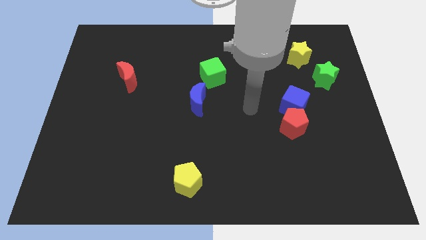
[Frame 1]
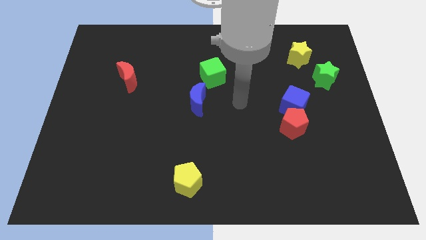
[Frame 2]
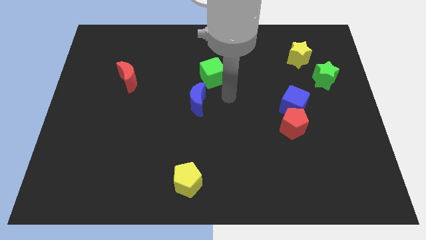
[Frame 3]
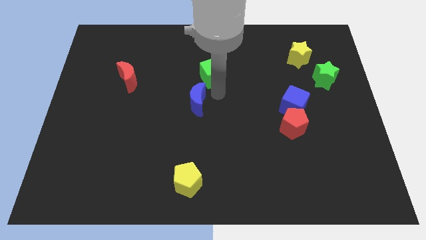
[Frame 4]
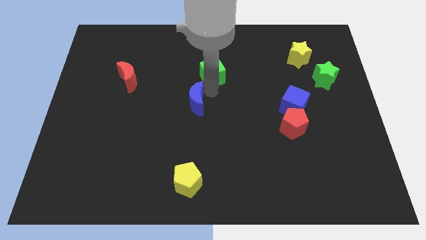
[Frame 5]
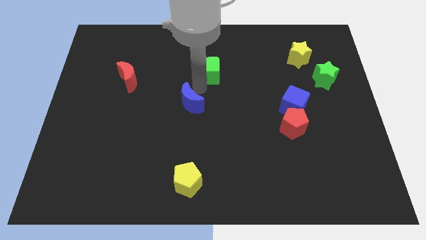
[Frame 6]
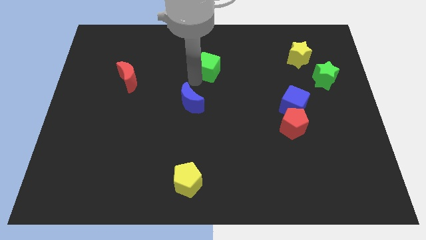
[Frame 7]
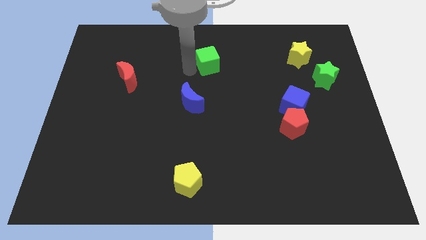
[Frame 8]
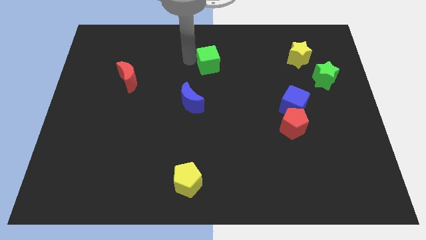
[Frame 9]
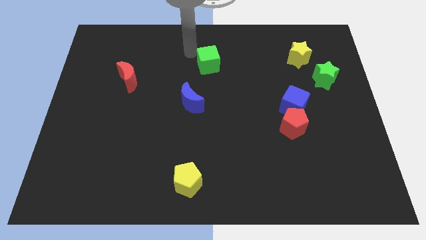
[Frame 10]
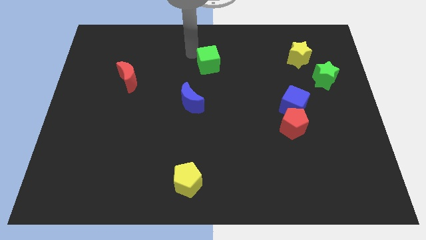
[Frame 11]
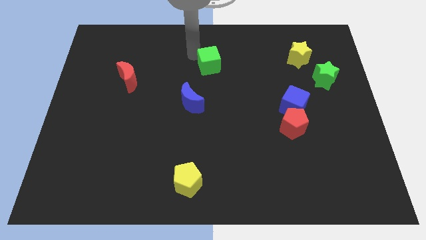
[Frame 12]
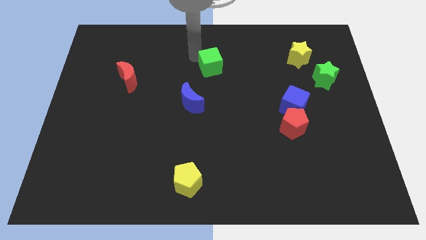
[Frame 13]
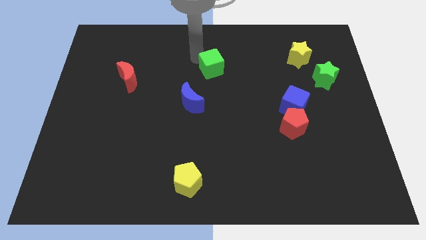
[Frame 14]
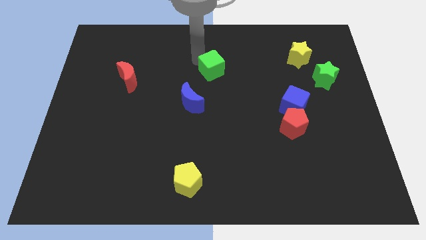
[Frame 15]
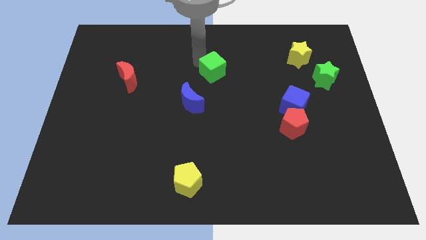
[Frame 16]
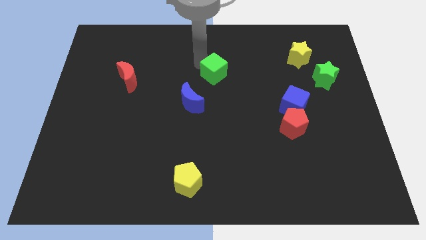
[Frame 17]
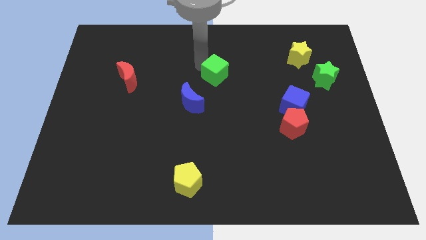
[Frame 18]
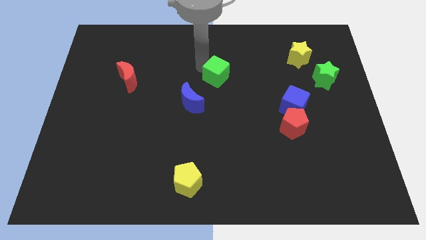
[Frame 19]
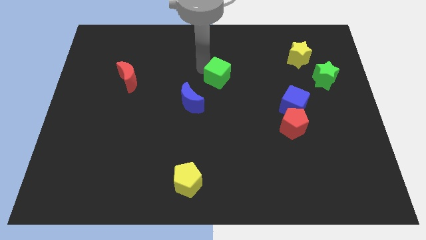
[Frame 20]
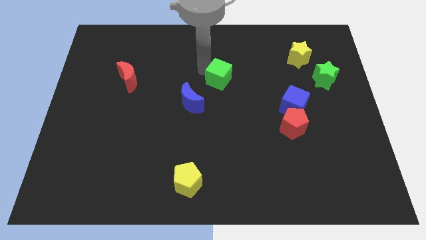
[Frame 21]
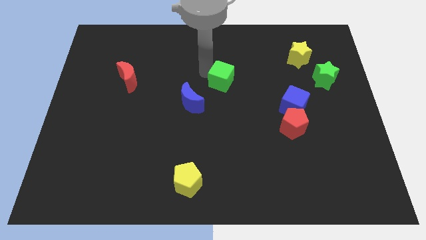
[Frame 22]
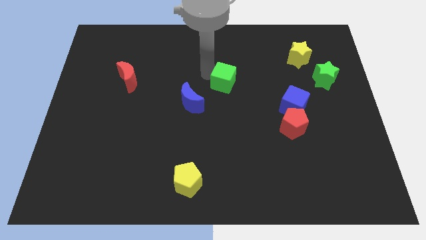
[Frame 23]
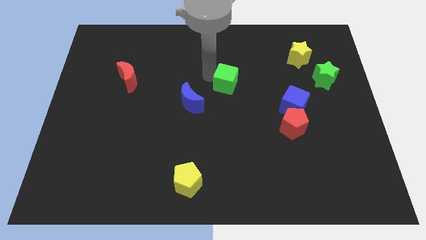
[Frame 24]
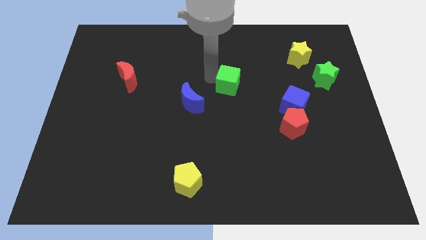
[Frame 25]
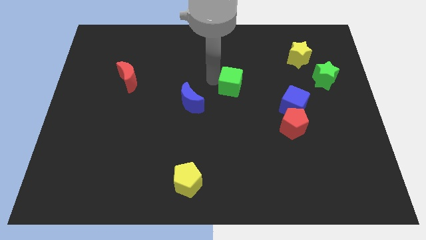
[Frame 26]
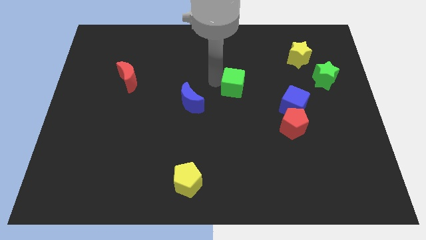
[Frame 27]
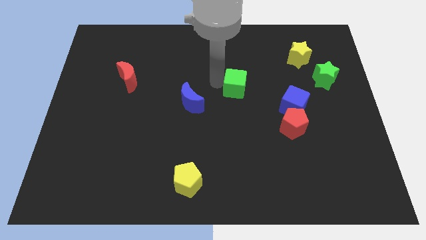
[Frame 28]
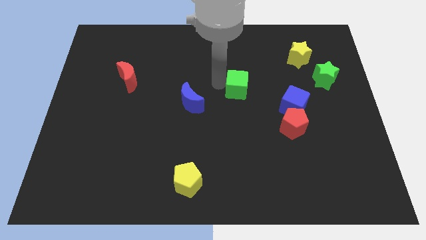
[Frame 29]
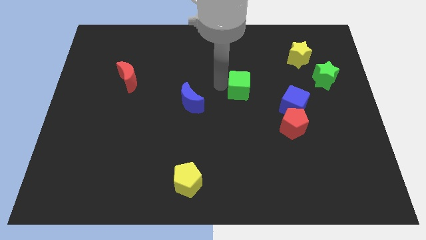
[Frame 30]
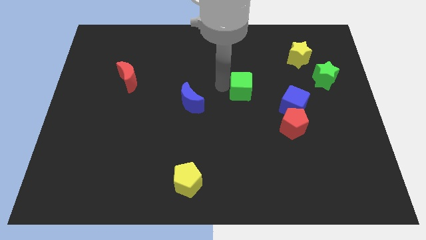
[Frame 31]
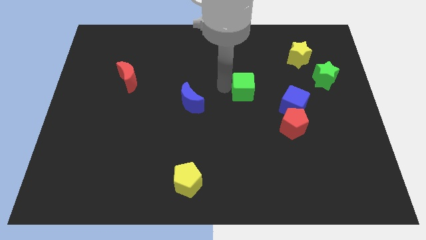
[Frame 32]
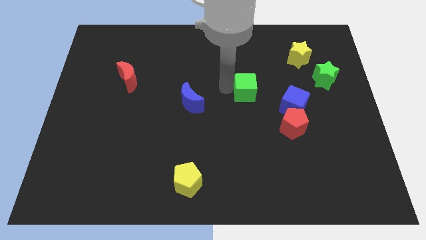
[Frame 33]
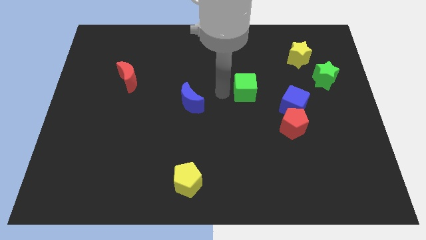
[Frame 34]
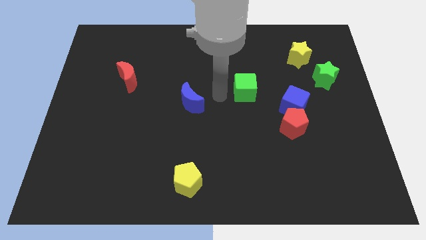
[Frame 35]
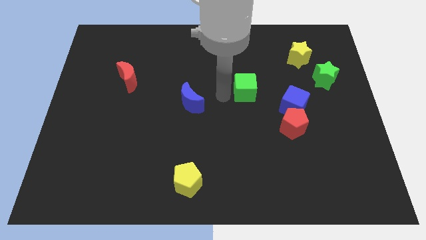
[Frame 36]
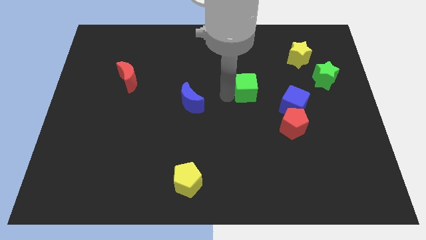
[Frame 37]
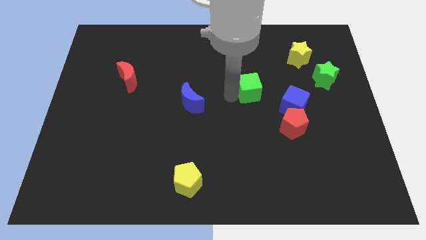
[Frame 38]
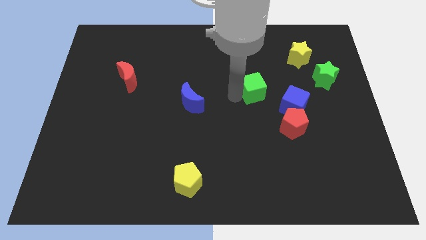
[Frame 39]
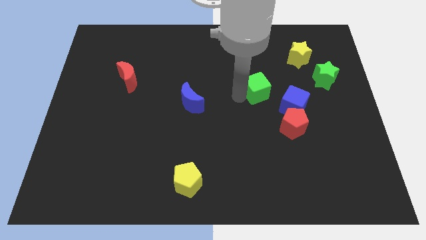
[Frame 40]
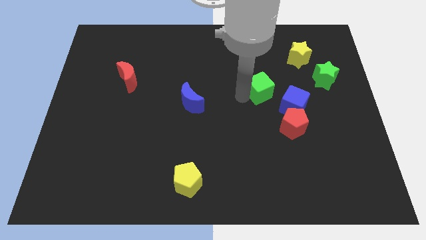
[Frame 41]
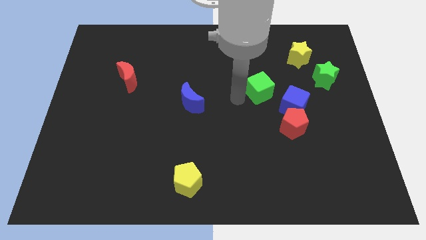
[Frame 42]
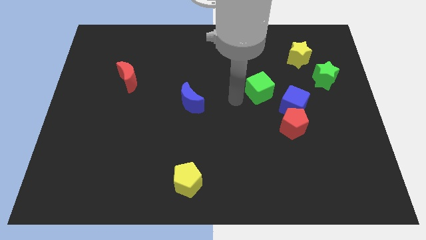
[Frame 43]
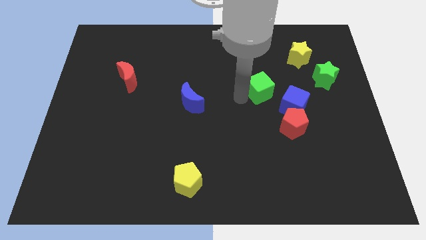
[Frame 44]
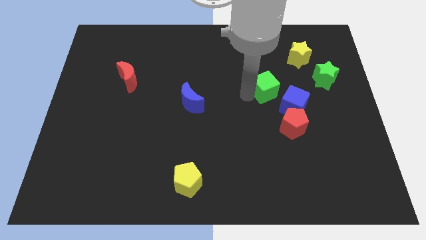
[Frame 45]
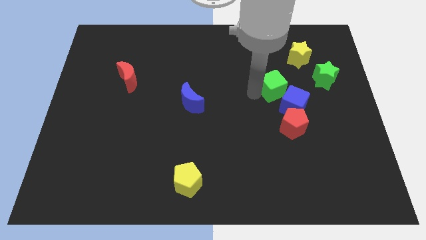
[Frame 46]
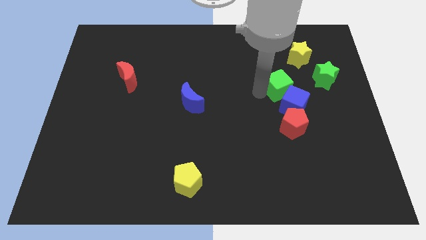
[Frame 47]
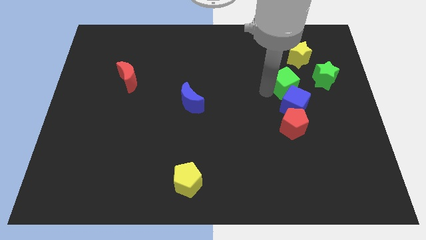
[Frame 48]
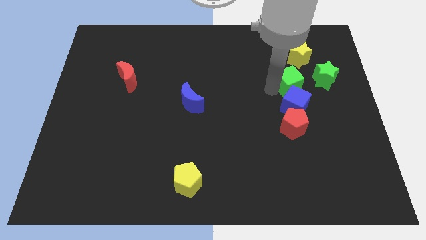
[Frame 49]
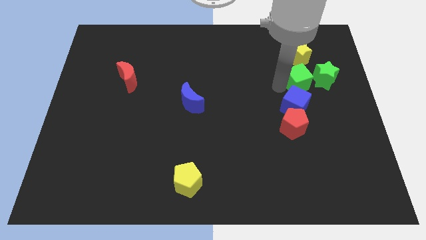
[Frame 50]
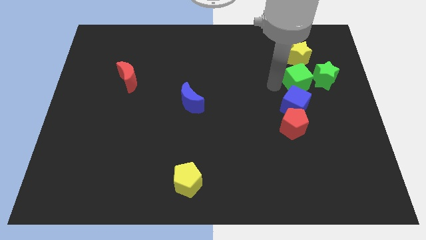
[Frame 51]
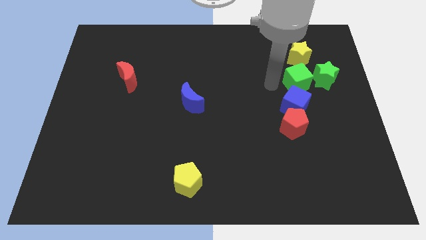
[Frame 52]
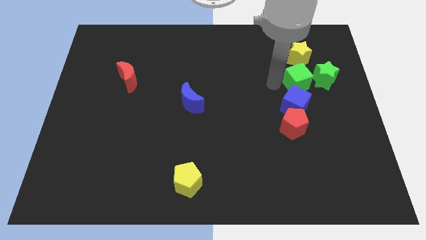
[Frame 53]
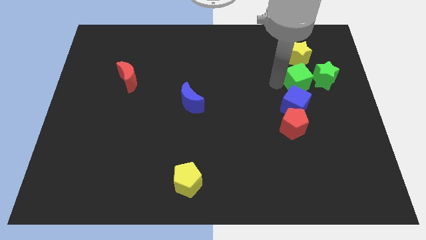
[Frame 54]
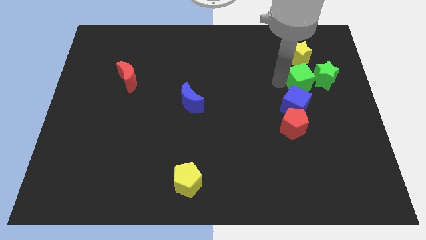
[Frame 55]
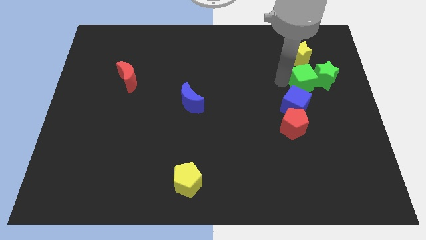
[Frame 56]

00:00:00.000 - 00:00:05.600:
slide the green cube next to the green star

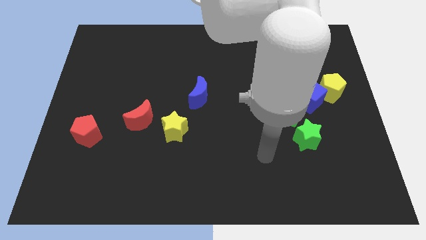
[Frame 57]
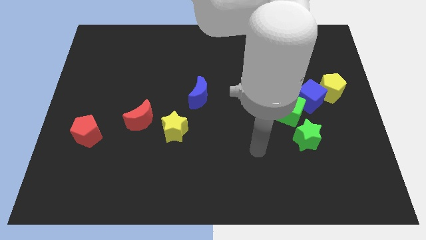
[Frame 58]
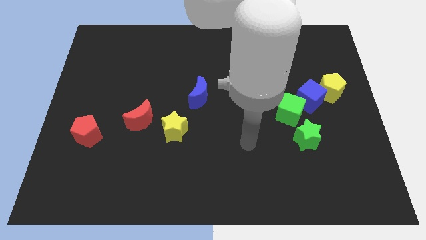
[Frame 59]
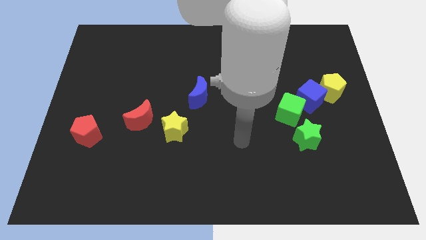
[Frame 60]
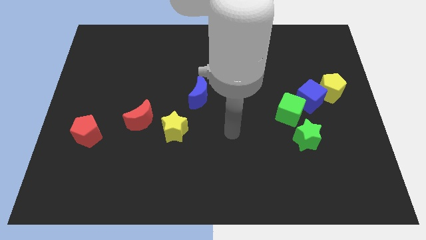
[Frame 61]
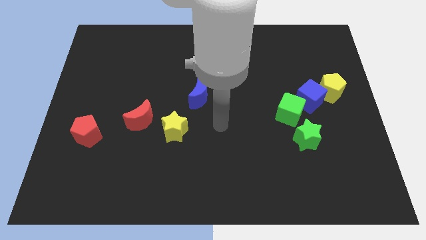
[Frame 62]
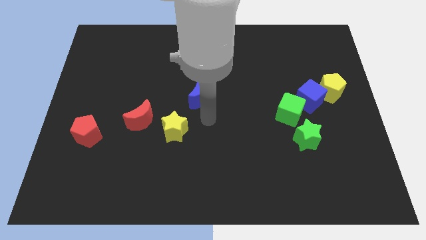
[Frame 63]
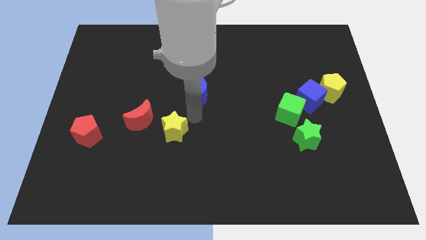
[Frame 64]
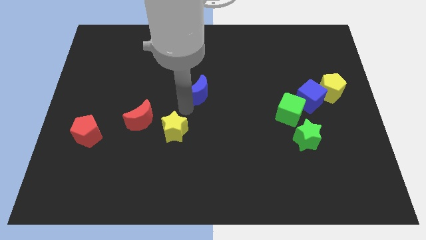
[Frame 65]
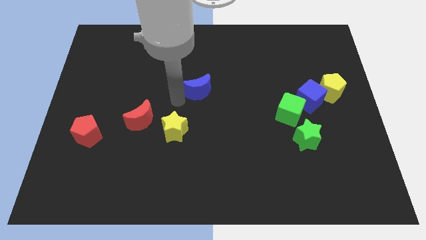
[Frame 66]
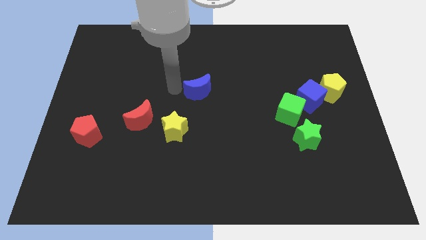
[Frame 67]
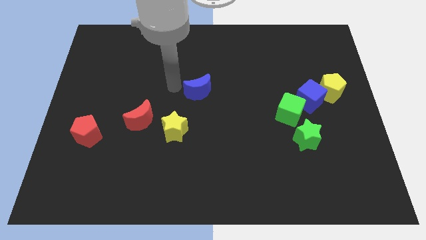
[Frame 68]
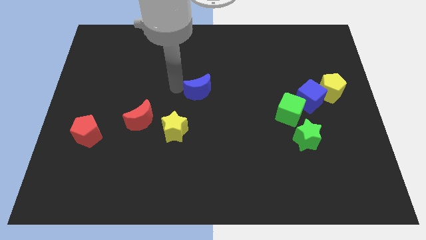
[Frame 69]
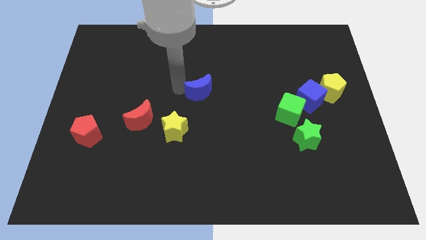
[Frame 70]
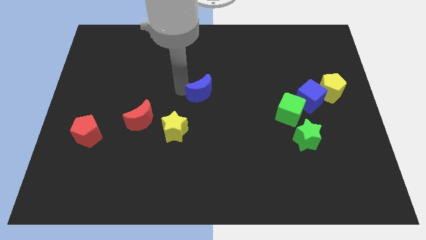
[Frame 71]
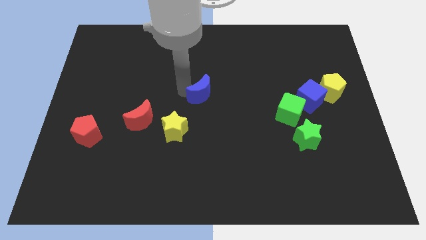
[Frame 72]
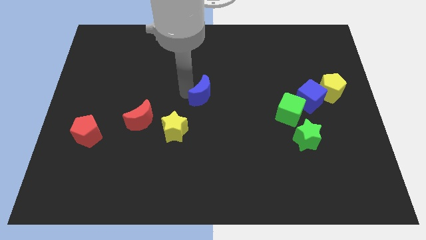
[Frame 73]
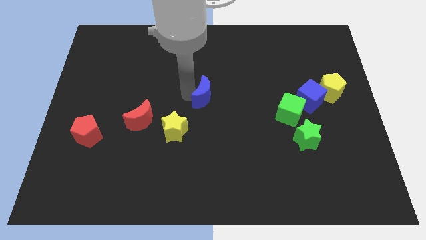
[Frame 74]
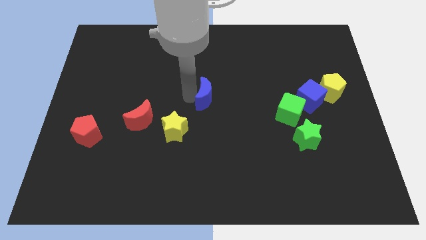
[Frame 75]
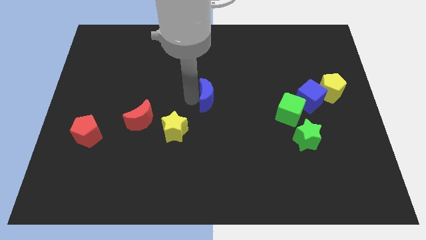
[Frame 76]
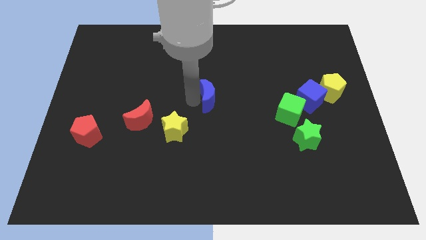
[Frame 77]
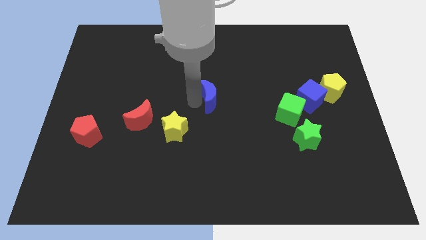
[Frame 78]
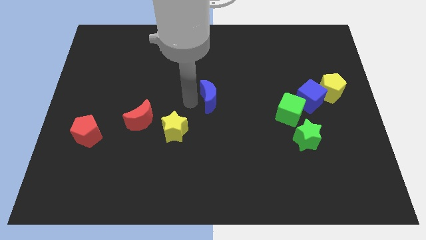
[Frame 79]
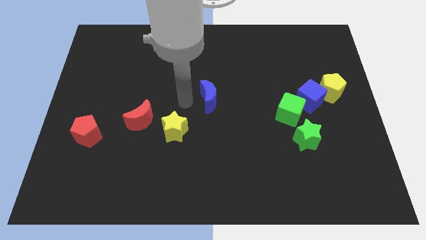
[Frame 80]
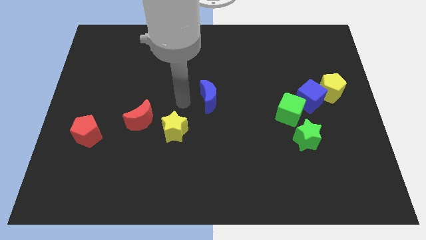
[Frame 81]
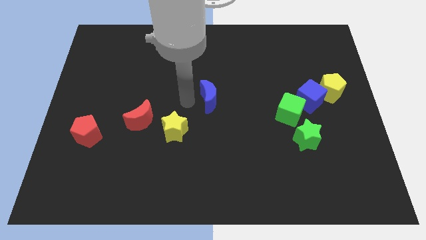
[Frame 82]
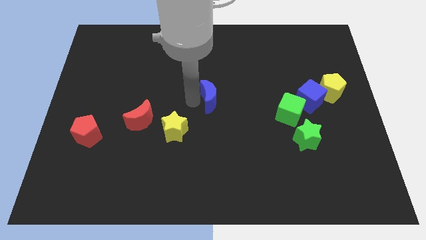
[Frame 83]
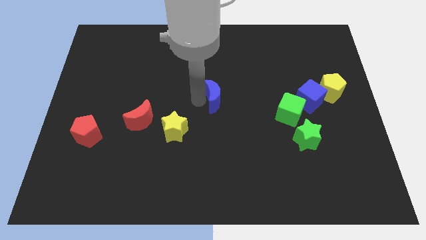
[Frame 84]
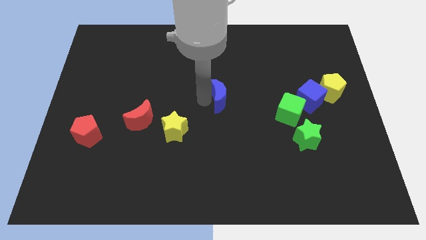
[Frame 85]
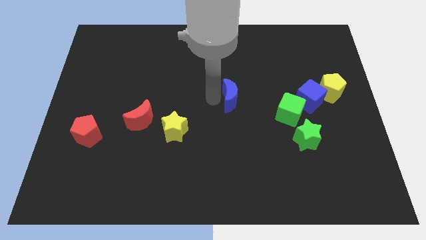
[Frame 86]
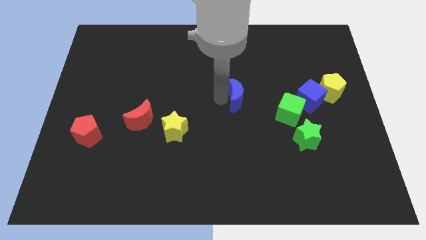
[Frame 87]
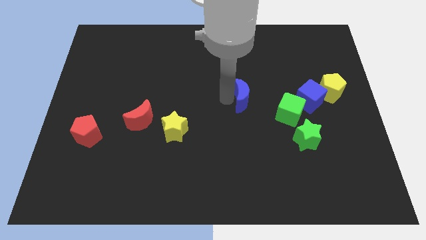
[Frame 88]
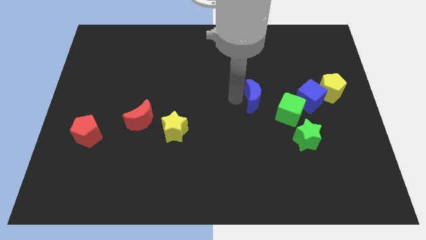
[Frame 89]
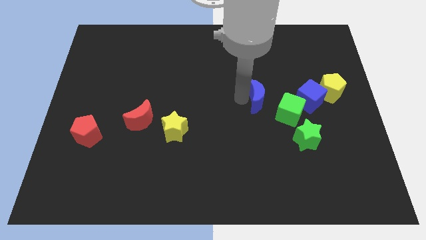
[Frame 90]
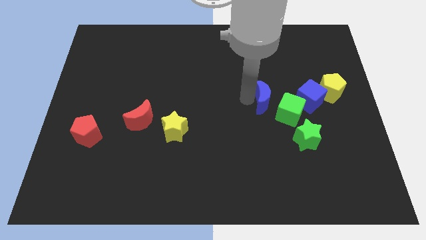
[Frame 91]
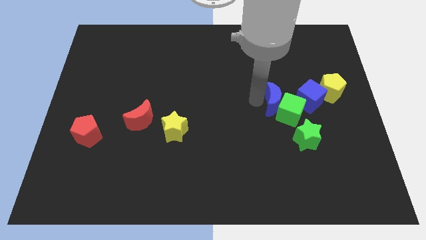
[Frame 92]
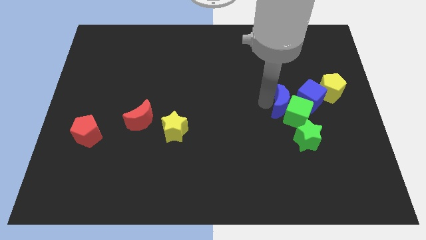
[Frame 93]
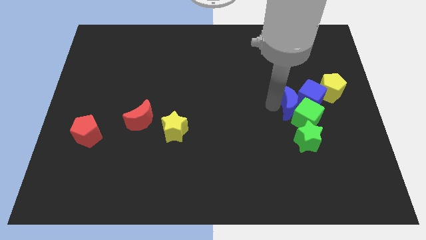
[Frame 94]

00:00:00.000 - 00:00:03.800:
move the blue moon next to the blue cube
